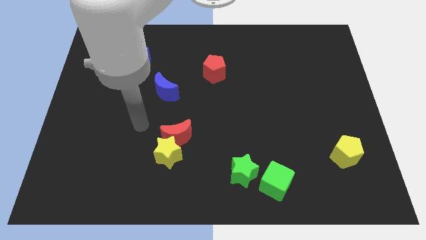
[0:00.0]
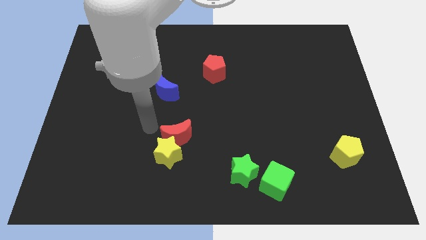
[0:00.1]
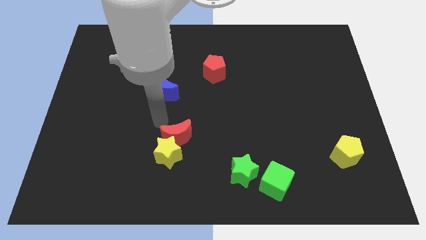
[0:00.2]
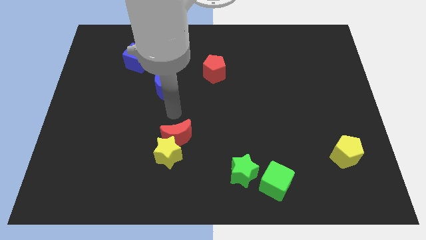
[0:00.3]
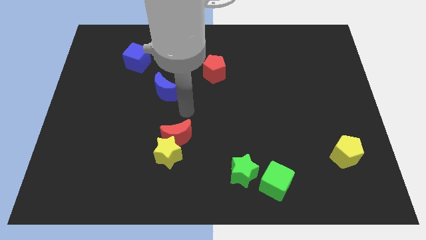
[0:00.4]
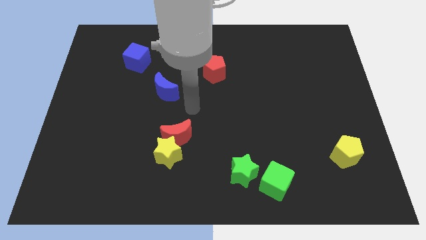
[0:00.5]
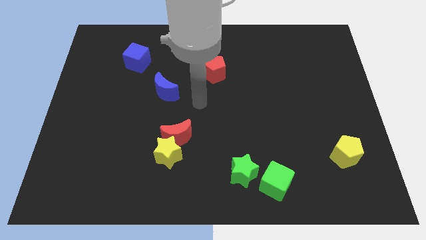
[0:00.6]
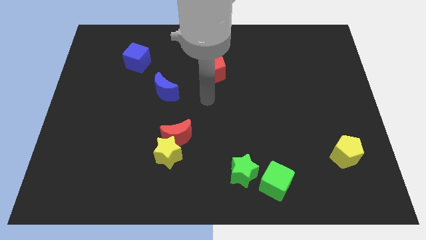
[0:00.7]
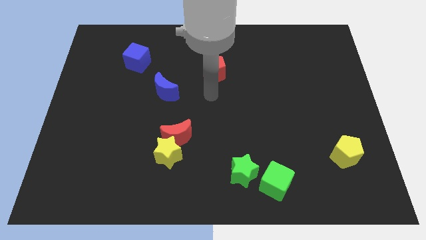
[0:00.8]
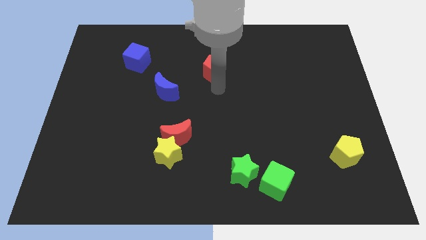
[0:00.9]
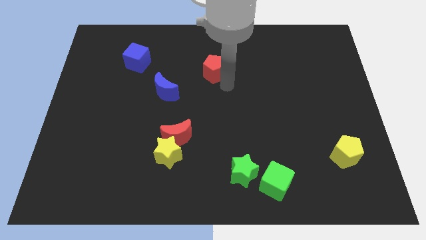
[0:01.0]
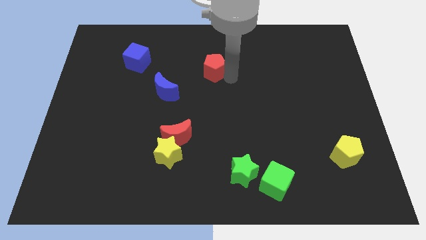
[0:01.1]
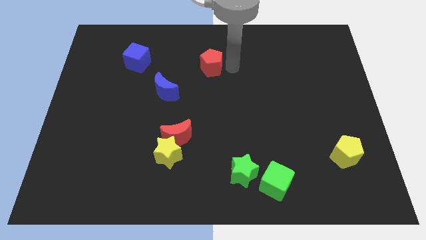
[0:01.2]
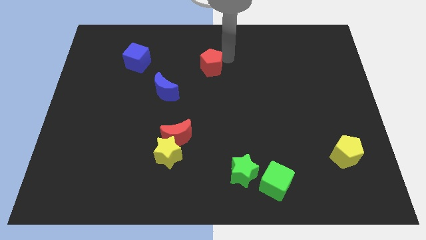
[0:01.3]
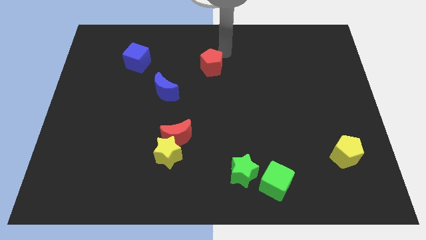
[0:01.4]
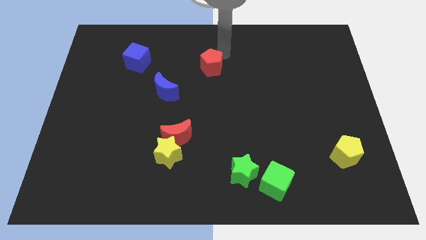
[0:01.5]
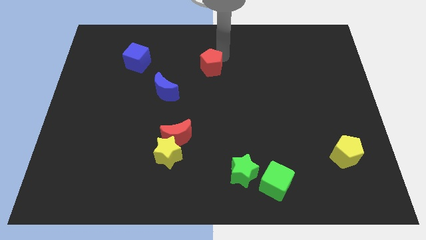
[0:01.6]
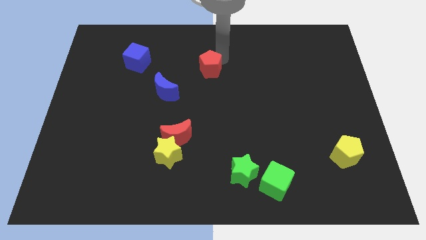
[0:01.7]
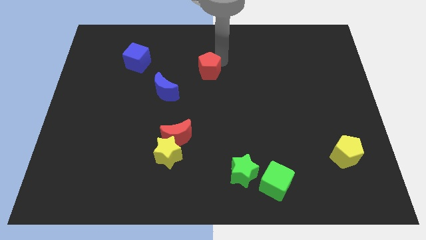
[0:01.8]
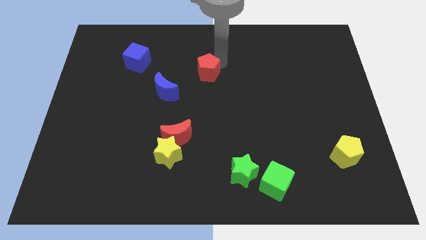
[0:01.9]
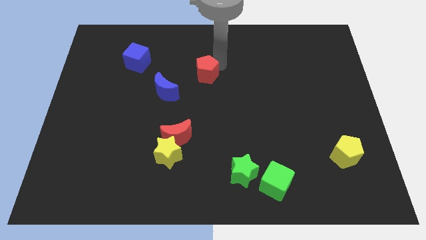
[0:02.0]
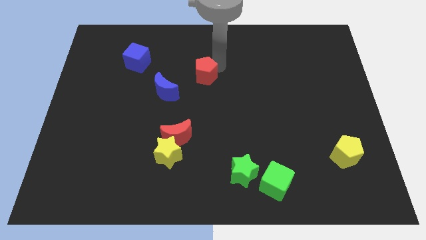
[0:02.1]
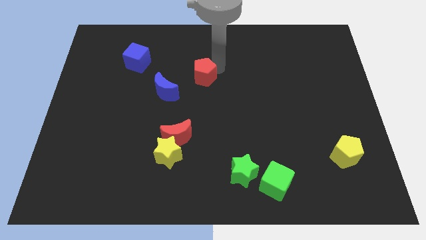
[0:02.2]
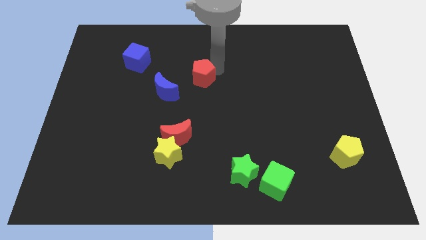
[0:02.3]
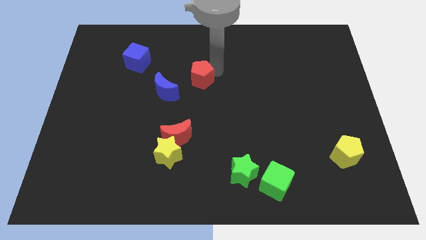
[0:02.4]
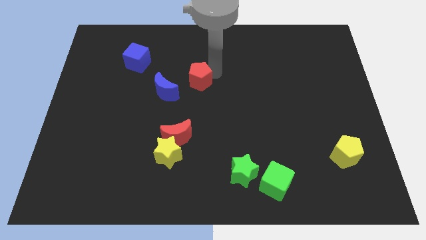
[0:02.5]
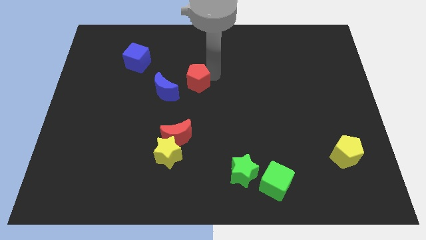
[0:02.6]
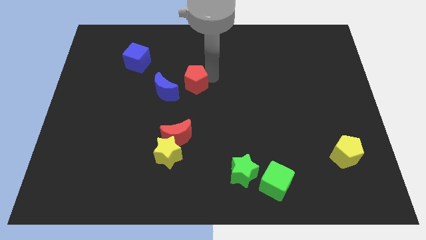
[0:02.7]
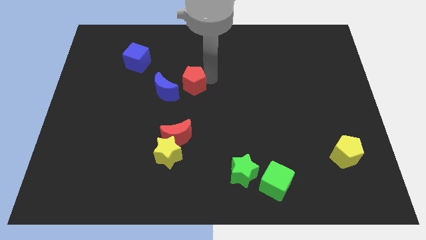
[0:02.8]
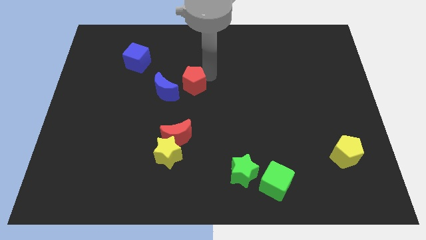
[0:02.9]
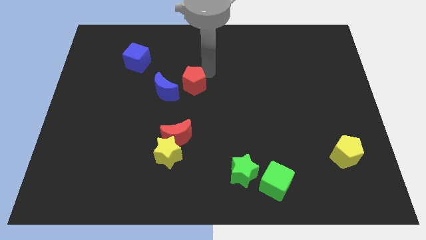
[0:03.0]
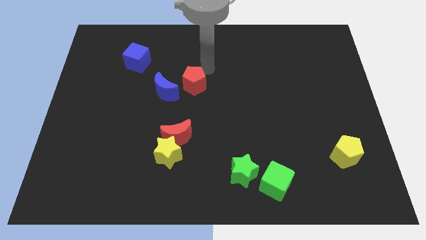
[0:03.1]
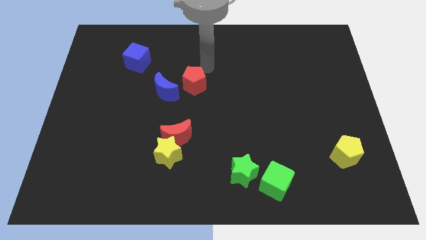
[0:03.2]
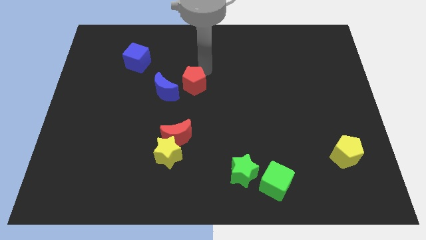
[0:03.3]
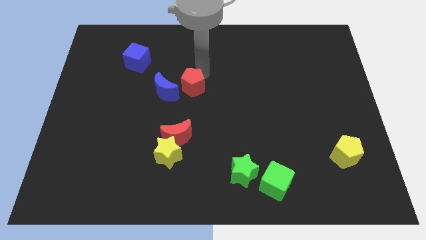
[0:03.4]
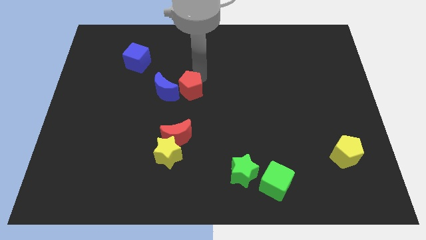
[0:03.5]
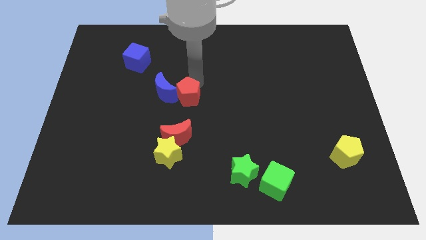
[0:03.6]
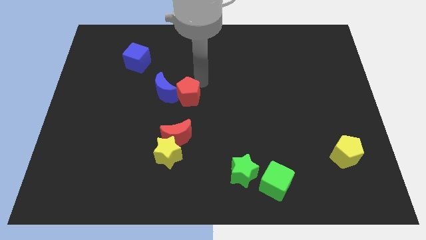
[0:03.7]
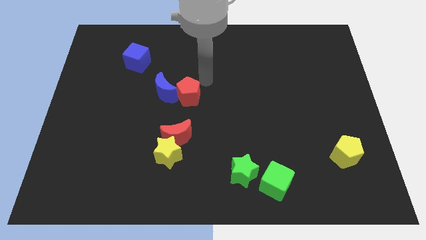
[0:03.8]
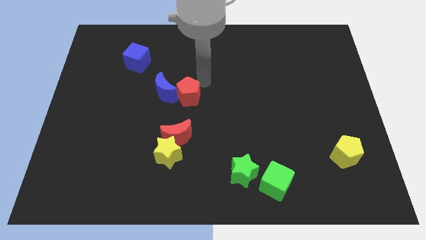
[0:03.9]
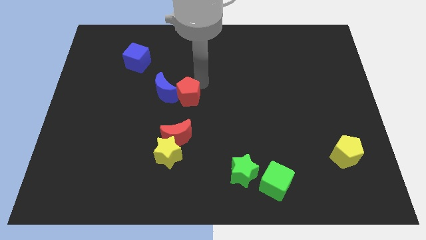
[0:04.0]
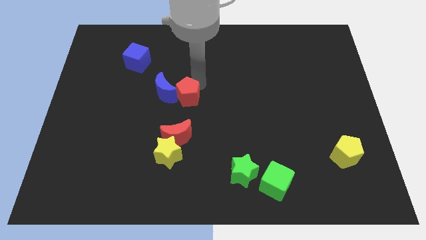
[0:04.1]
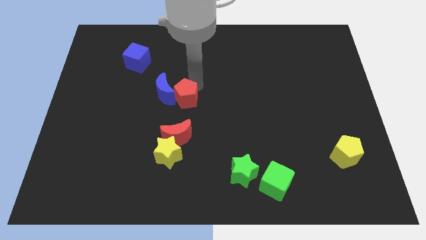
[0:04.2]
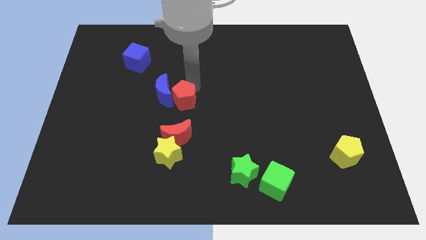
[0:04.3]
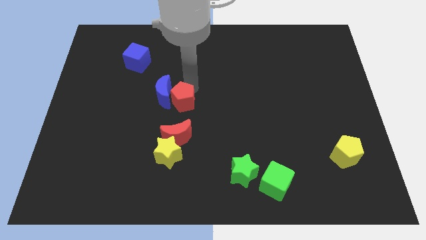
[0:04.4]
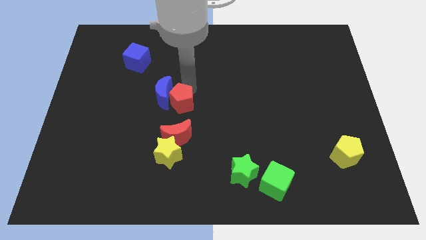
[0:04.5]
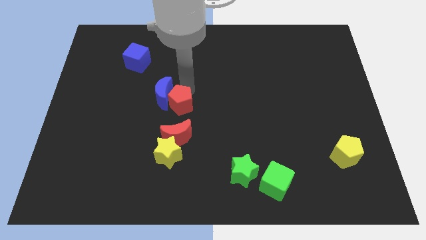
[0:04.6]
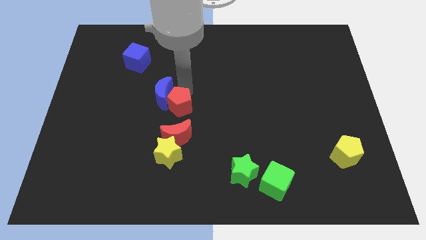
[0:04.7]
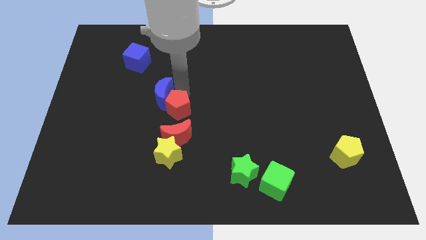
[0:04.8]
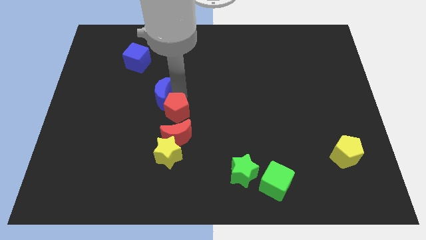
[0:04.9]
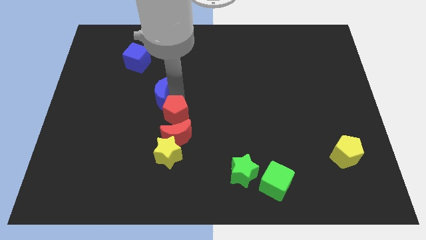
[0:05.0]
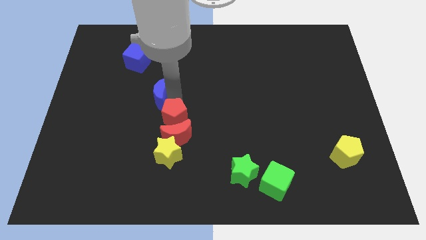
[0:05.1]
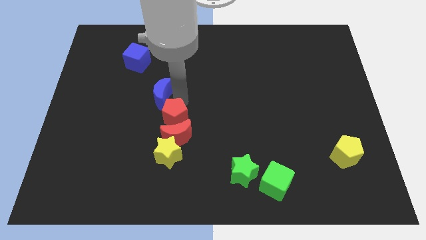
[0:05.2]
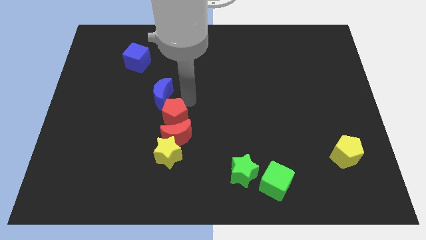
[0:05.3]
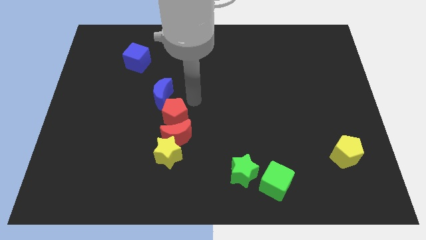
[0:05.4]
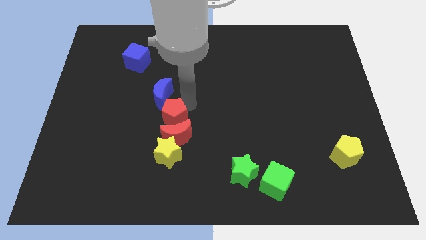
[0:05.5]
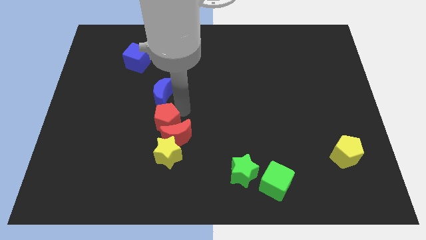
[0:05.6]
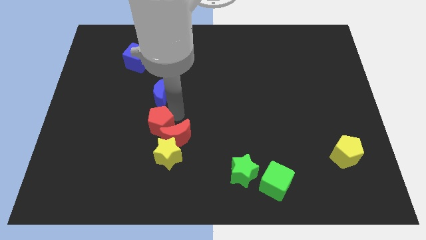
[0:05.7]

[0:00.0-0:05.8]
slide the red pentagon diagonally down and left

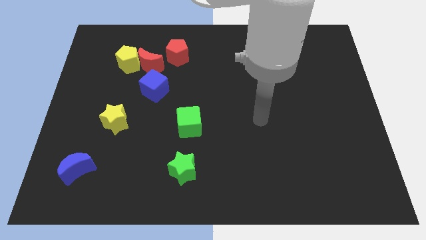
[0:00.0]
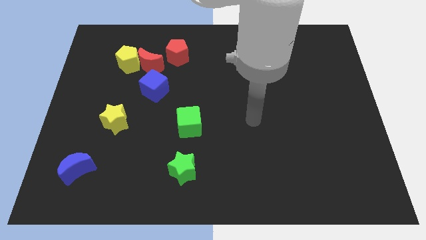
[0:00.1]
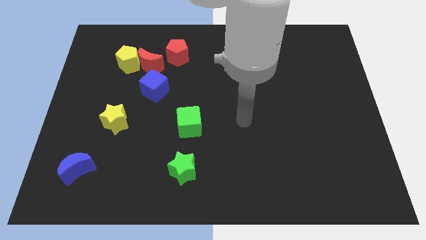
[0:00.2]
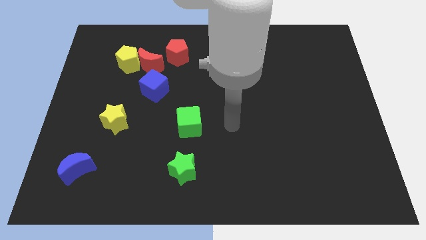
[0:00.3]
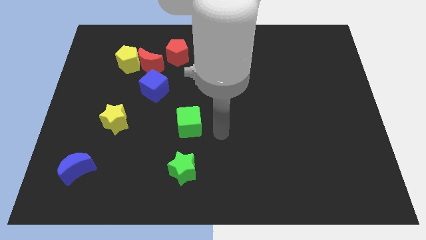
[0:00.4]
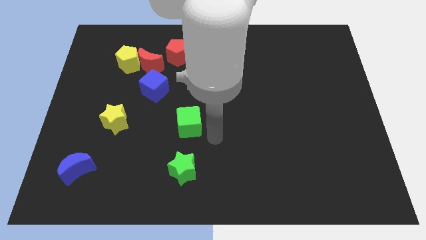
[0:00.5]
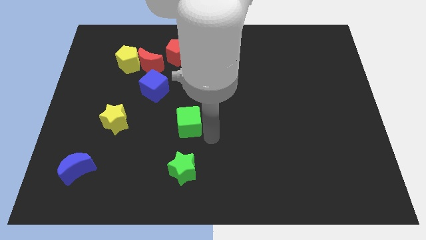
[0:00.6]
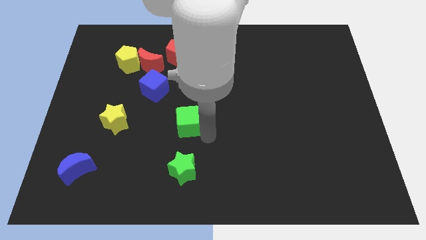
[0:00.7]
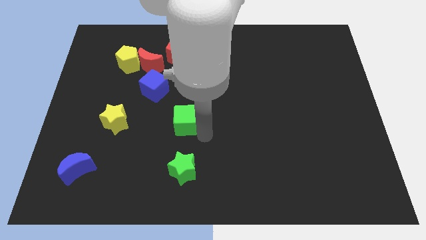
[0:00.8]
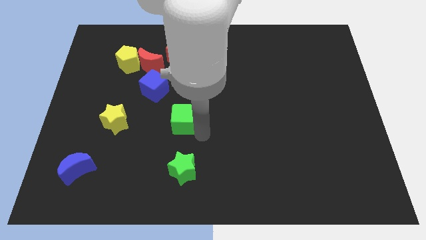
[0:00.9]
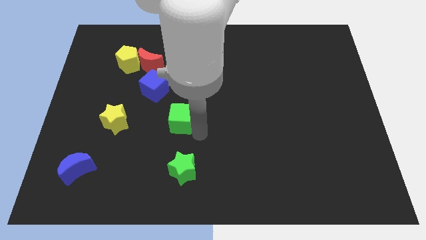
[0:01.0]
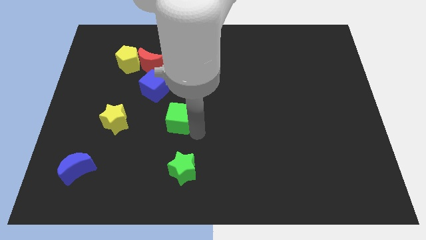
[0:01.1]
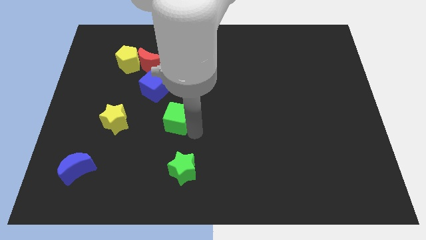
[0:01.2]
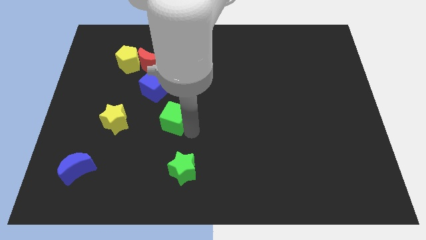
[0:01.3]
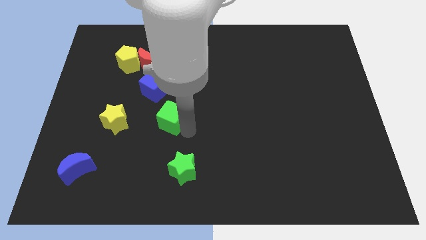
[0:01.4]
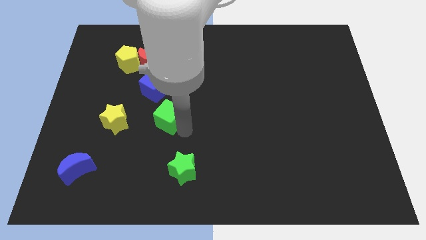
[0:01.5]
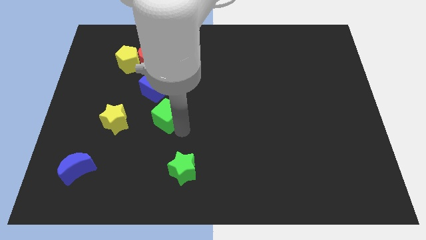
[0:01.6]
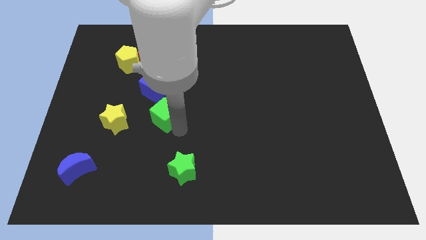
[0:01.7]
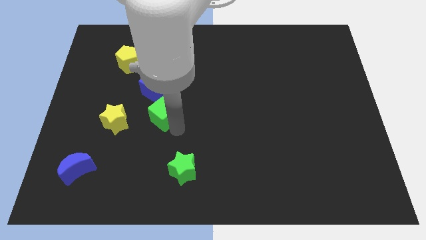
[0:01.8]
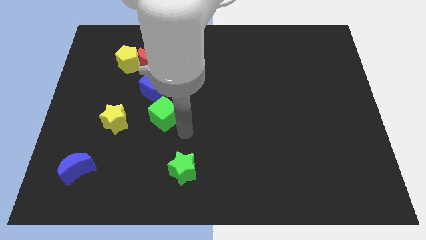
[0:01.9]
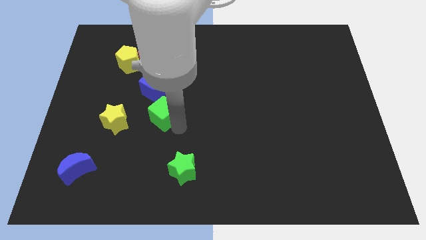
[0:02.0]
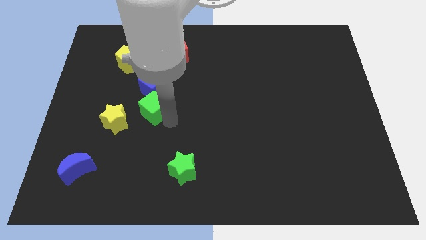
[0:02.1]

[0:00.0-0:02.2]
slide the green cube upwards and then left a bit
